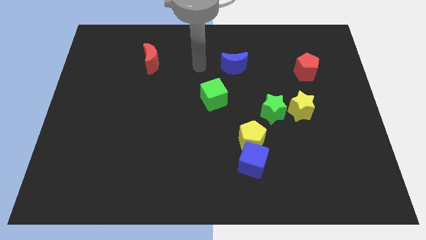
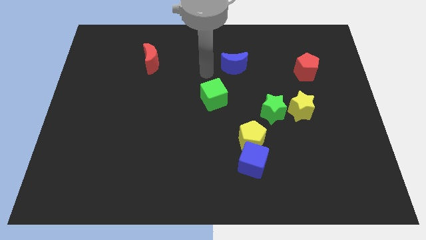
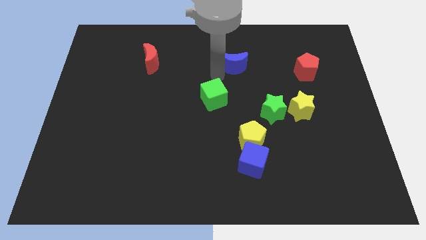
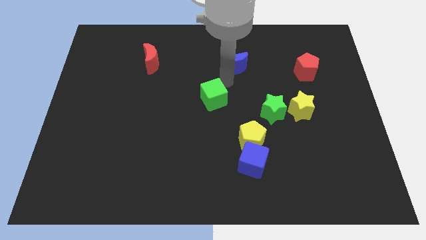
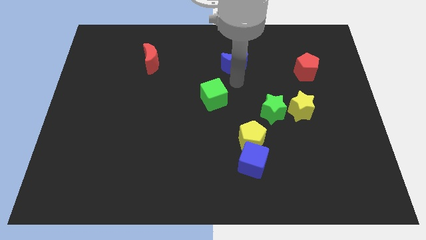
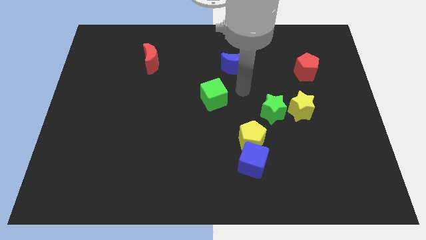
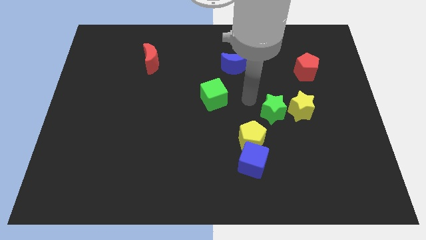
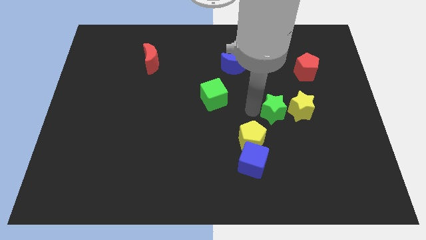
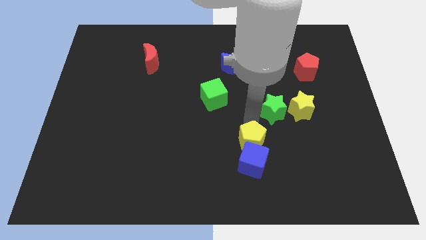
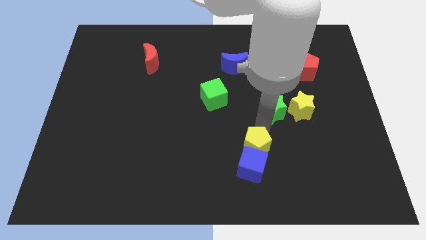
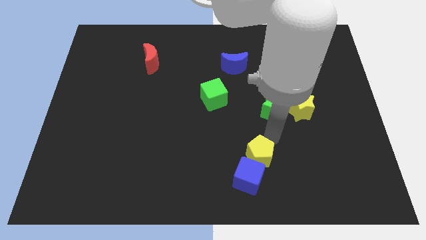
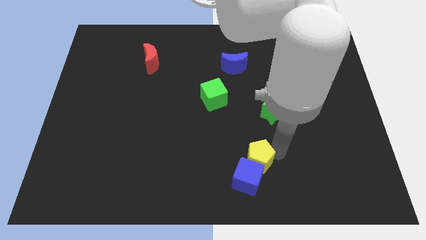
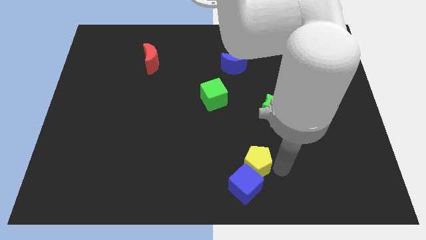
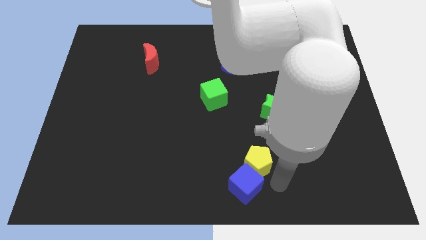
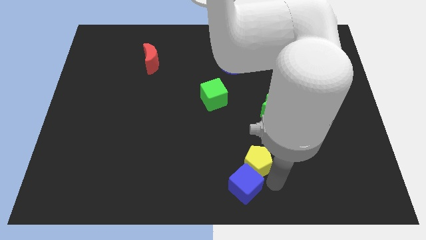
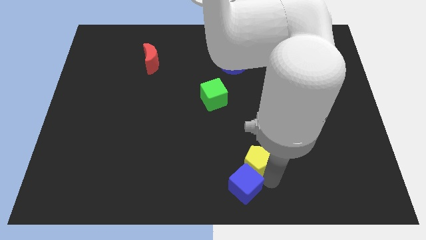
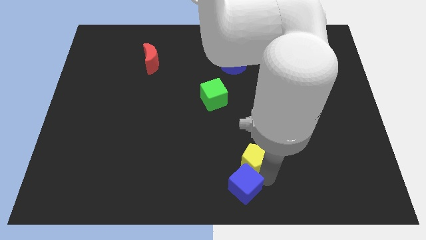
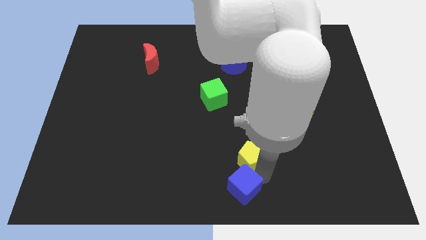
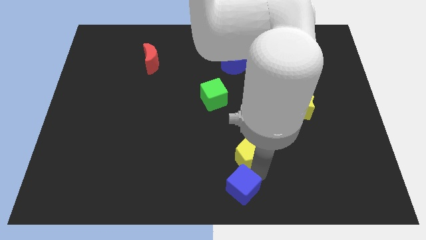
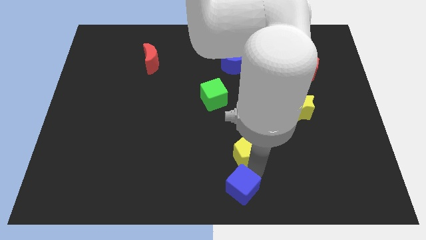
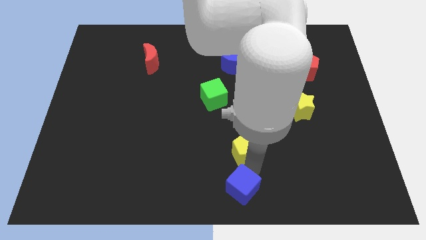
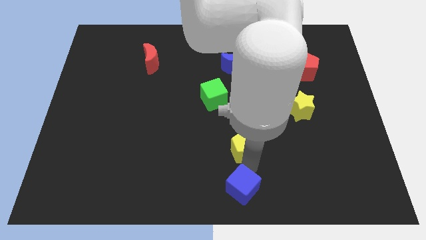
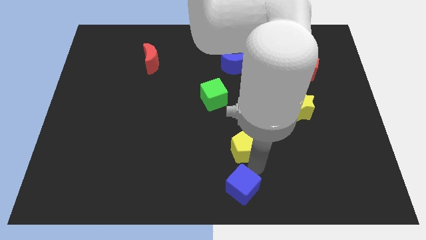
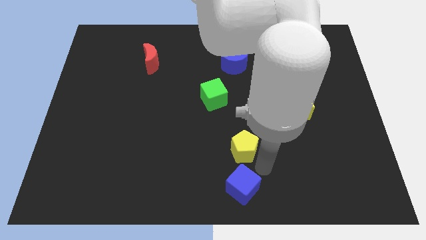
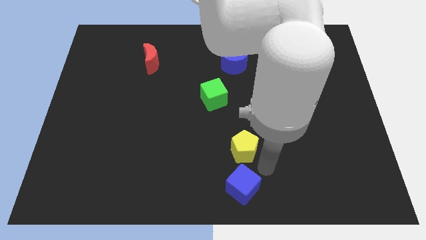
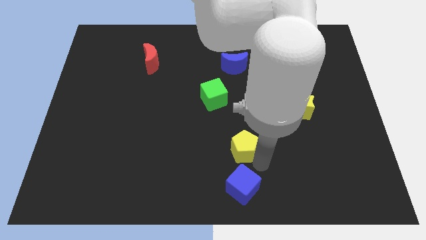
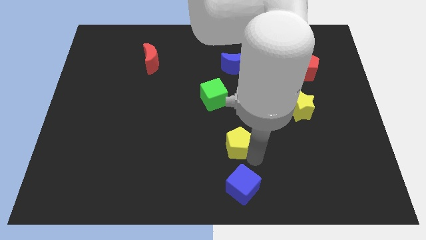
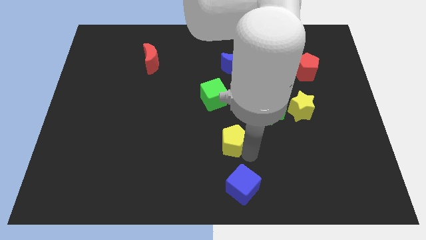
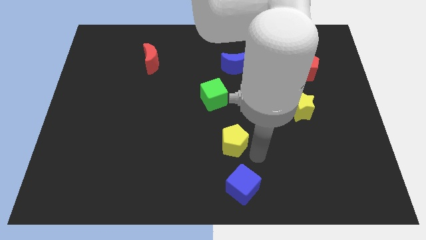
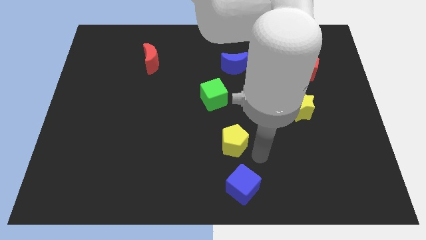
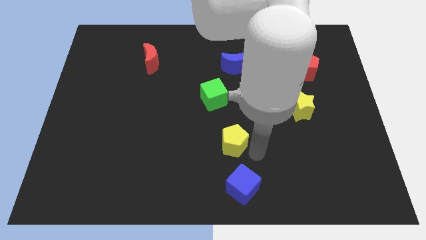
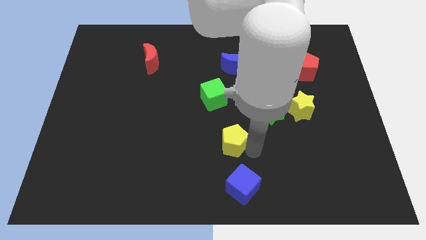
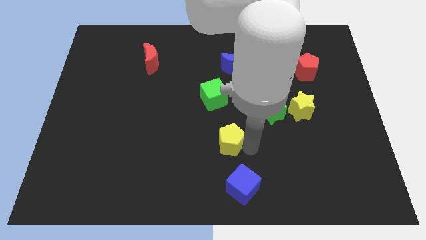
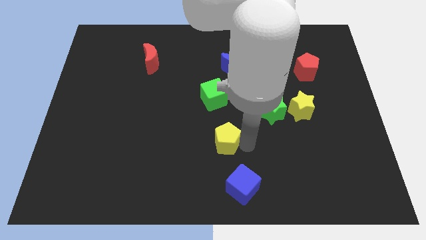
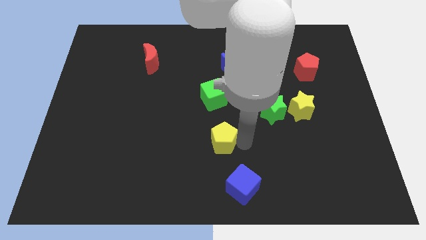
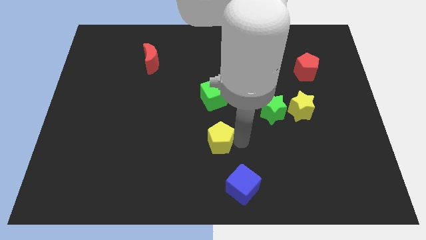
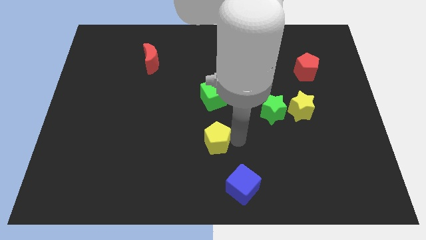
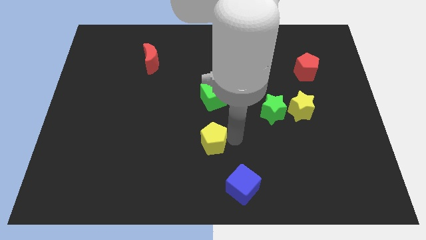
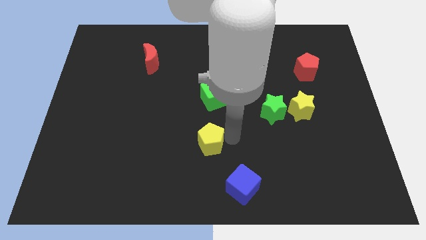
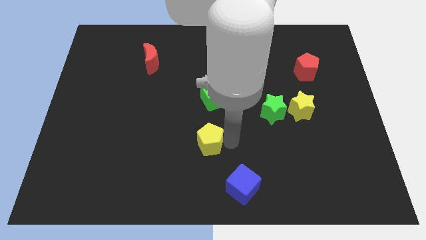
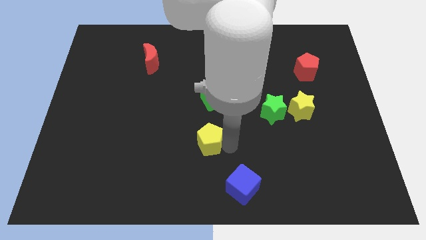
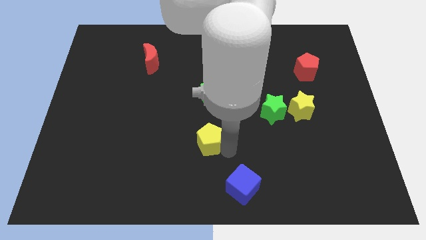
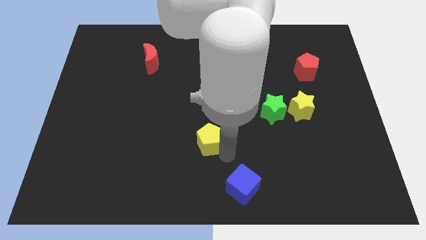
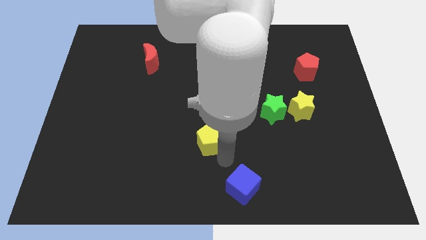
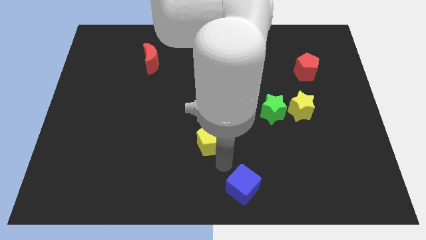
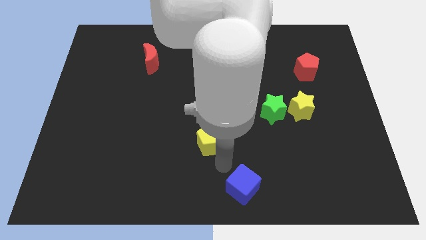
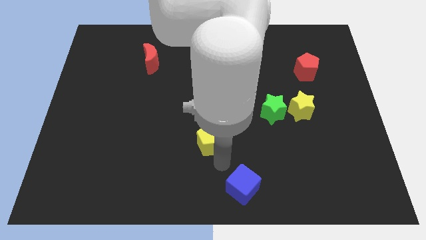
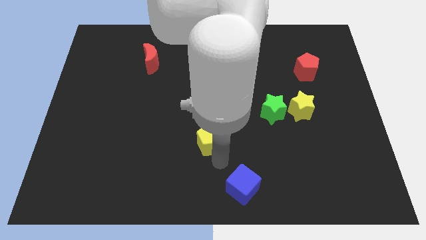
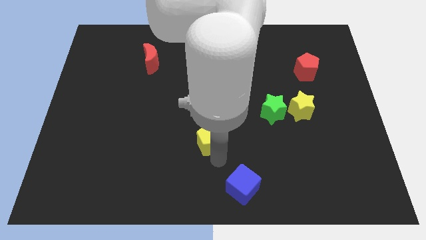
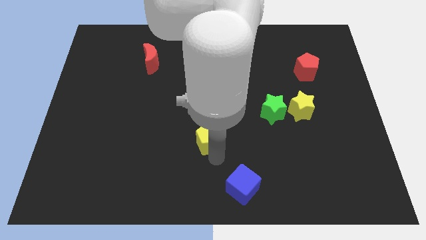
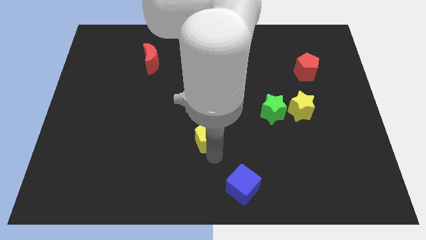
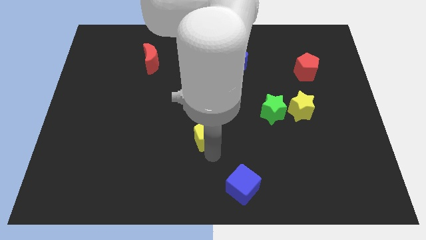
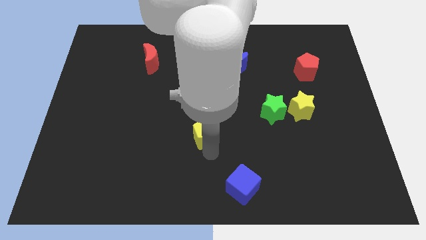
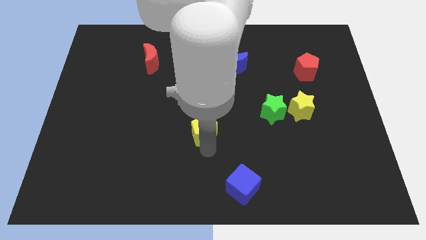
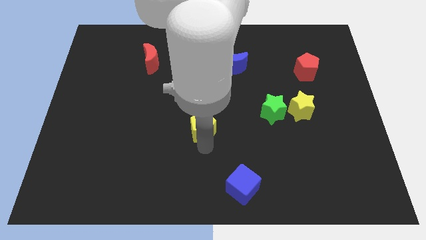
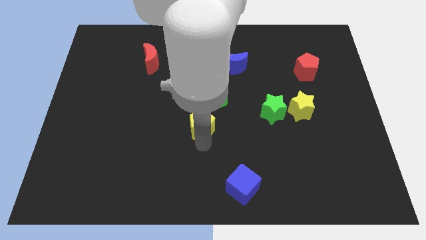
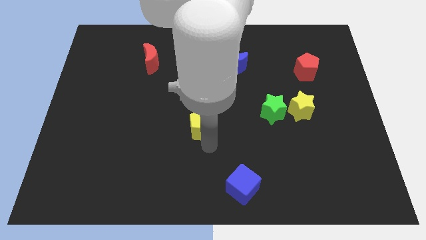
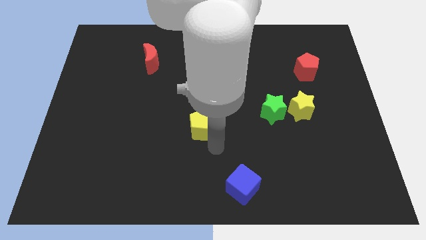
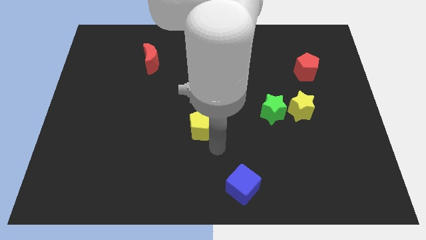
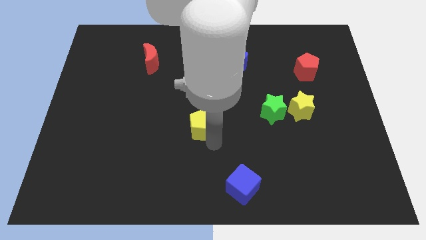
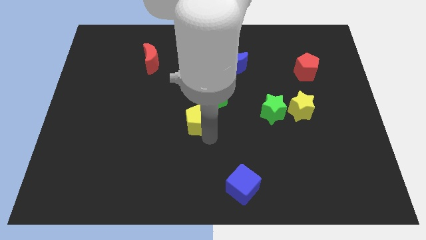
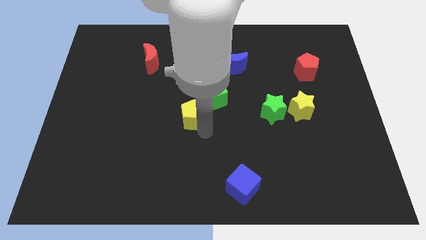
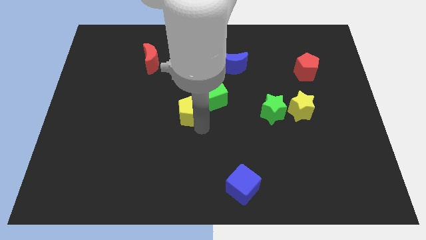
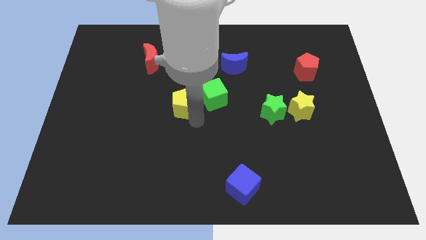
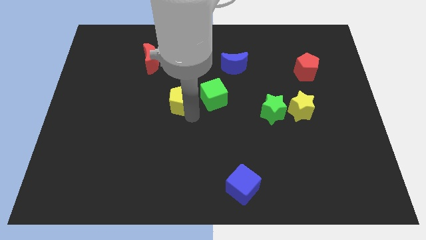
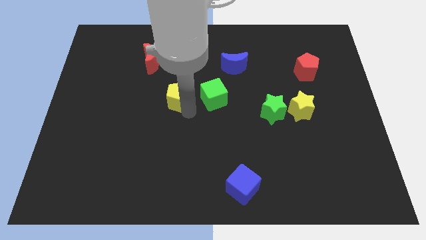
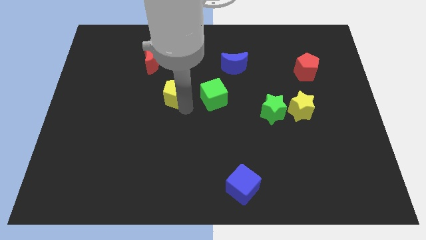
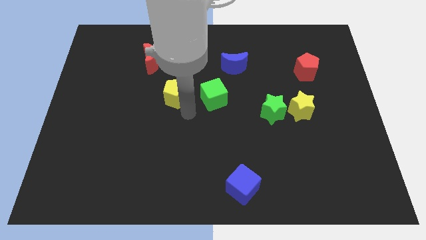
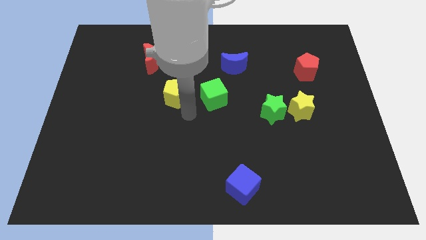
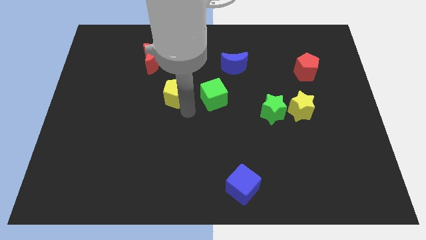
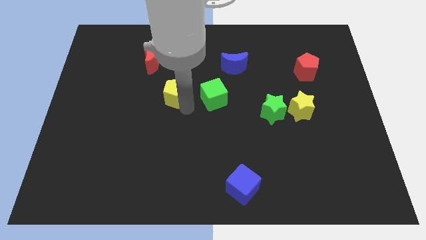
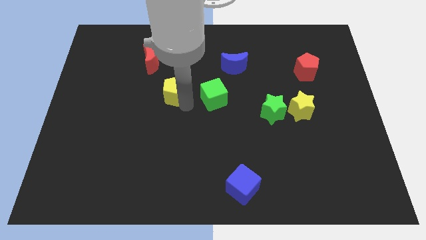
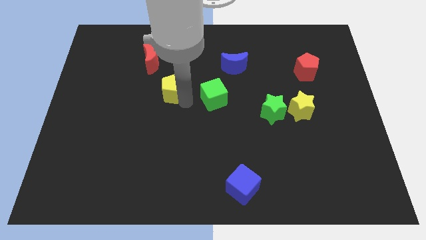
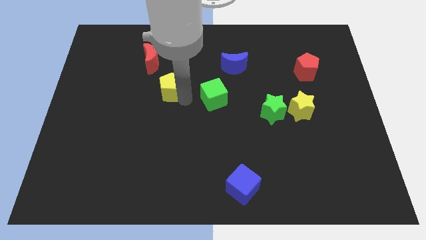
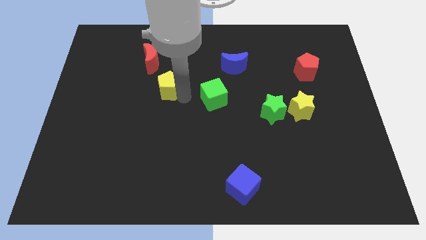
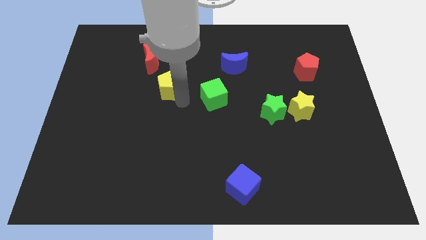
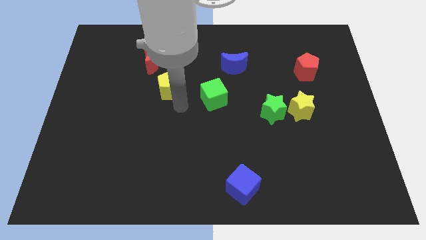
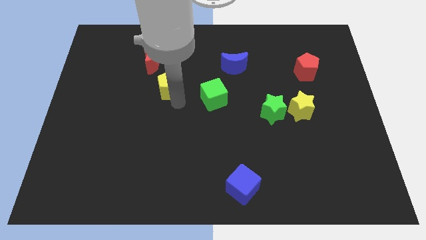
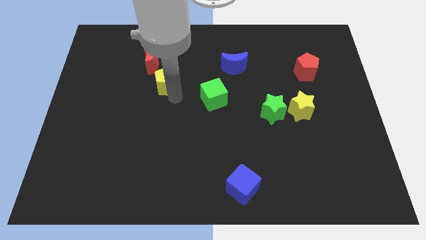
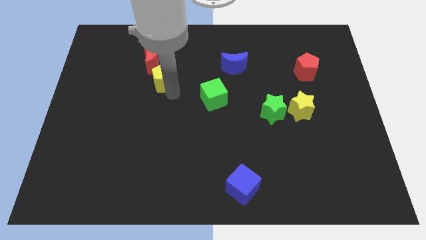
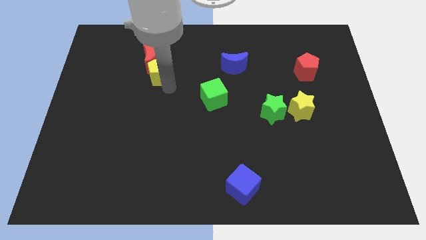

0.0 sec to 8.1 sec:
move the yellow pentagon next to the red moon
